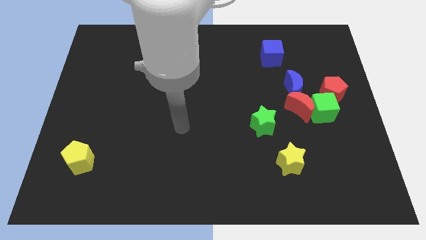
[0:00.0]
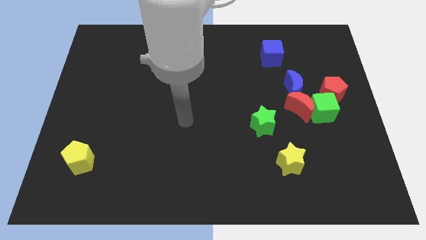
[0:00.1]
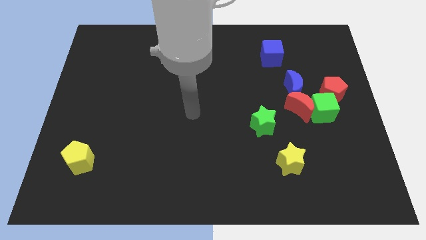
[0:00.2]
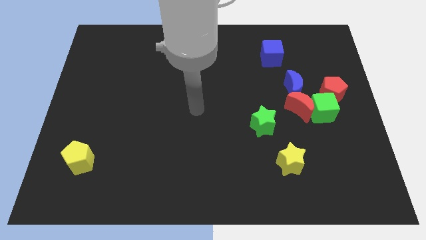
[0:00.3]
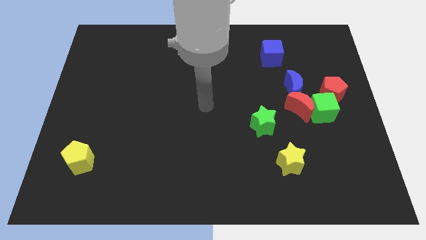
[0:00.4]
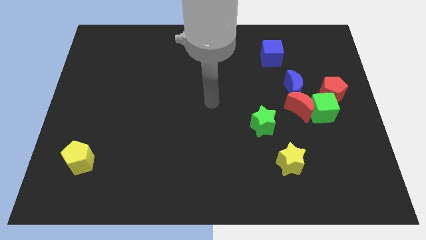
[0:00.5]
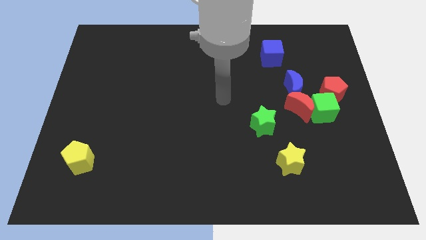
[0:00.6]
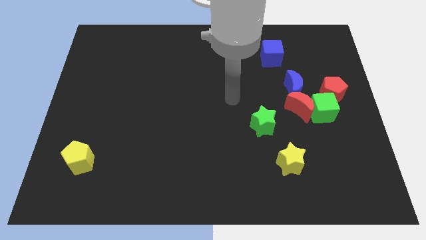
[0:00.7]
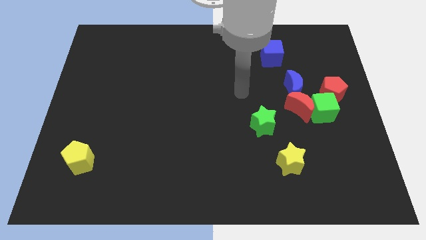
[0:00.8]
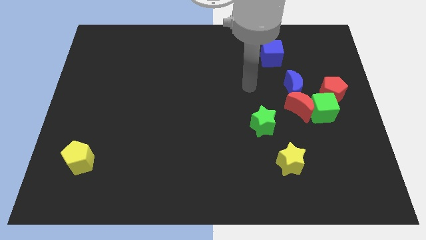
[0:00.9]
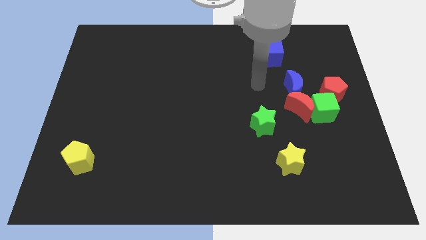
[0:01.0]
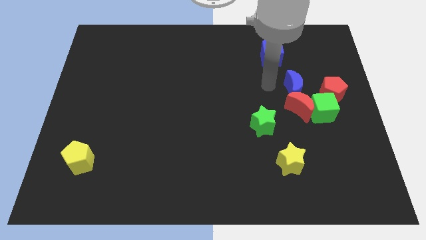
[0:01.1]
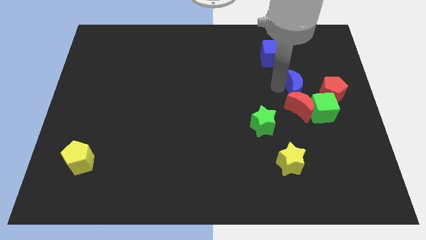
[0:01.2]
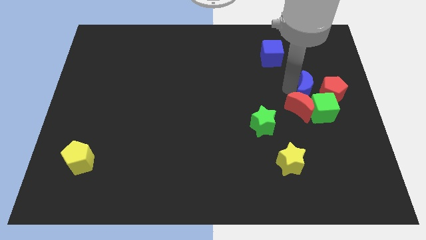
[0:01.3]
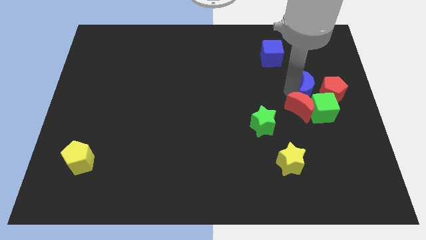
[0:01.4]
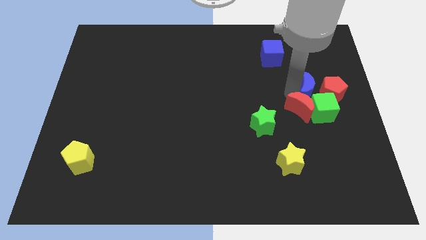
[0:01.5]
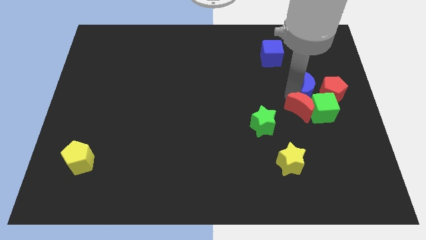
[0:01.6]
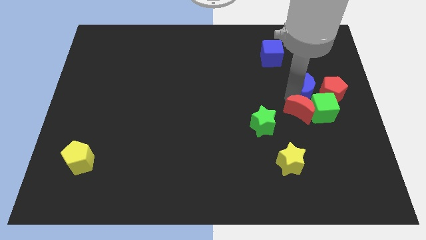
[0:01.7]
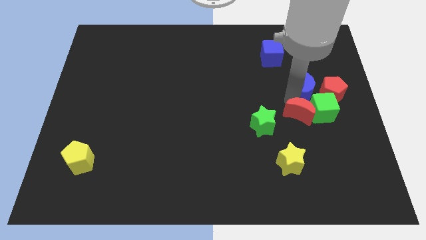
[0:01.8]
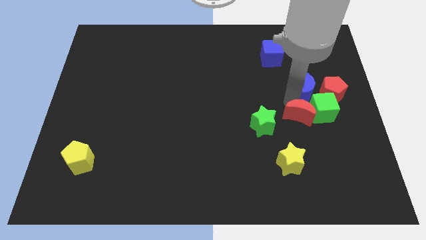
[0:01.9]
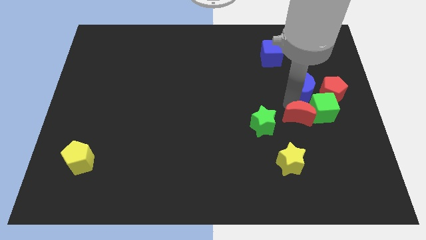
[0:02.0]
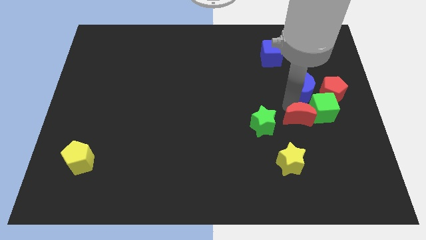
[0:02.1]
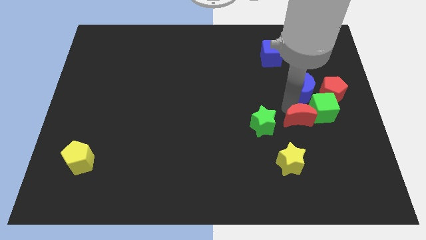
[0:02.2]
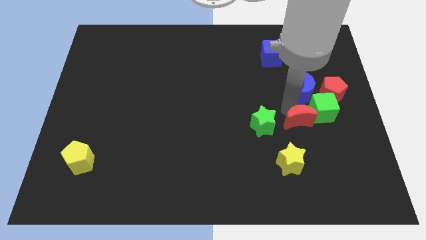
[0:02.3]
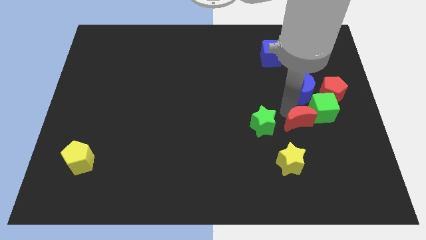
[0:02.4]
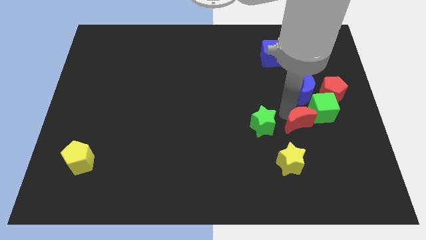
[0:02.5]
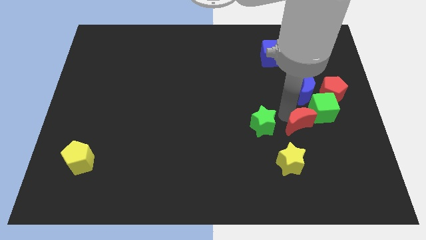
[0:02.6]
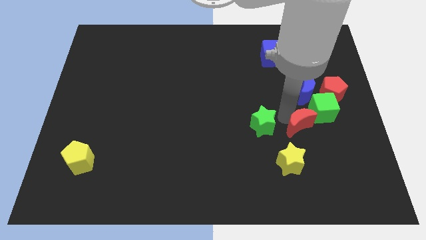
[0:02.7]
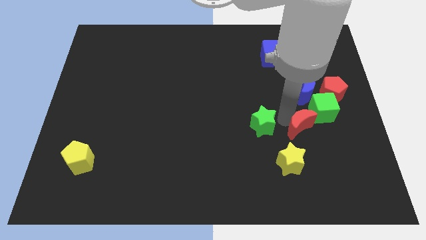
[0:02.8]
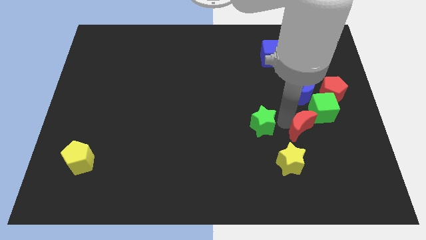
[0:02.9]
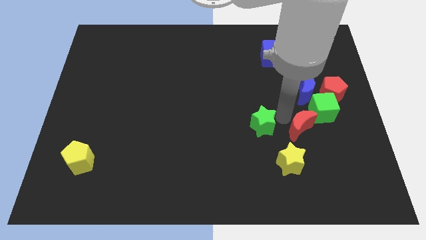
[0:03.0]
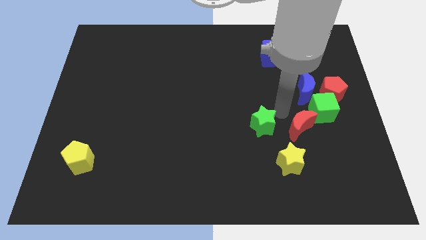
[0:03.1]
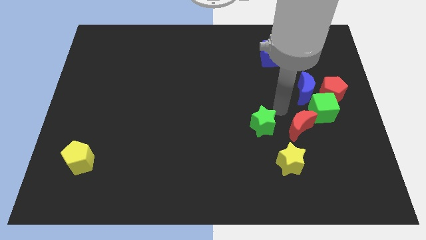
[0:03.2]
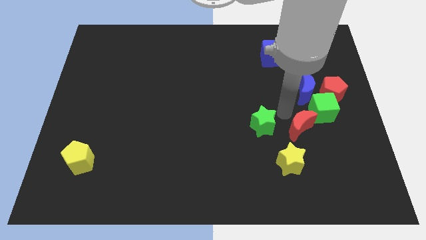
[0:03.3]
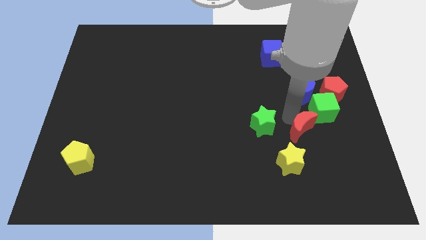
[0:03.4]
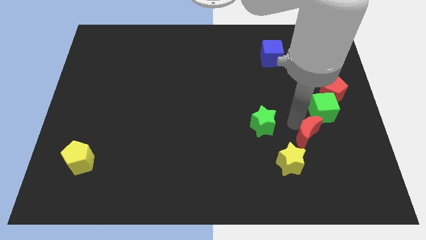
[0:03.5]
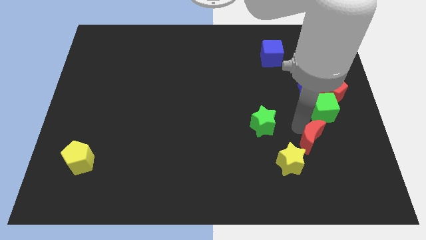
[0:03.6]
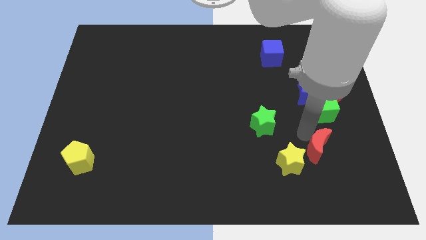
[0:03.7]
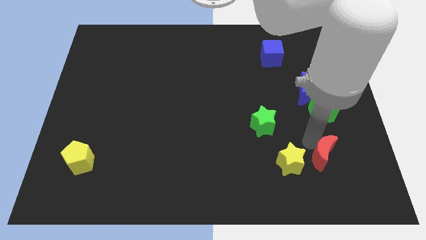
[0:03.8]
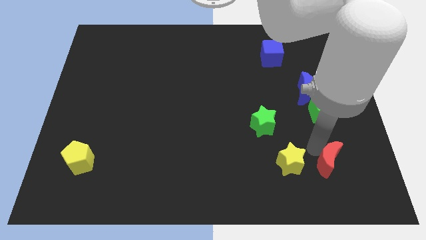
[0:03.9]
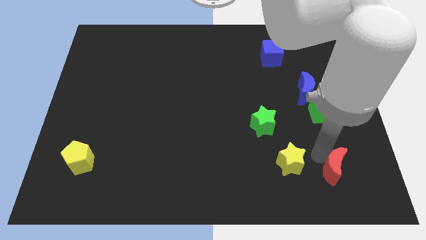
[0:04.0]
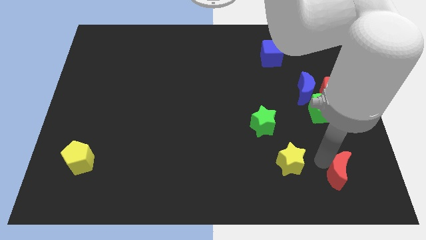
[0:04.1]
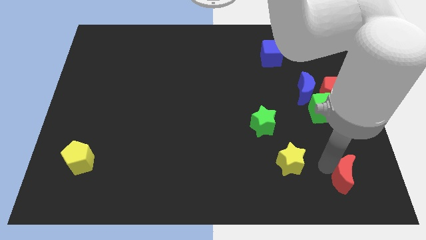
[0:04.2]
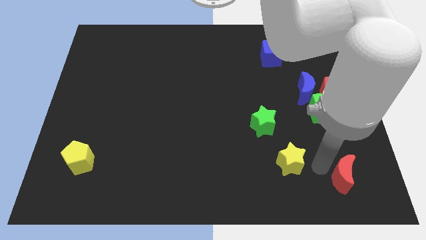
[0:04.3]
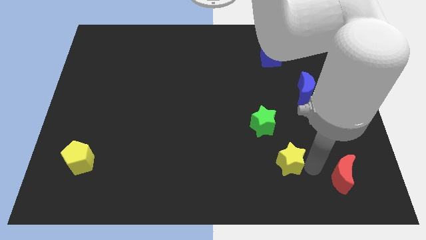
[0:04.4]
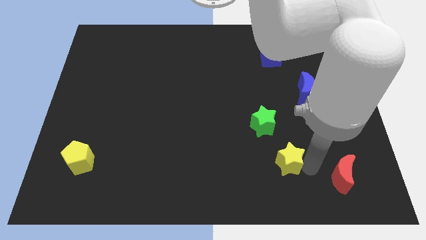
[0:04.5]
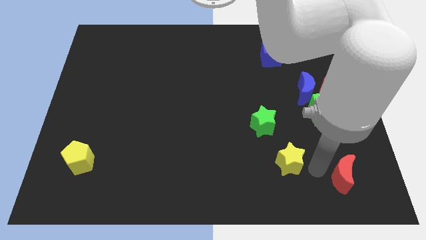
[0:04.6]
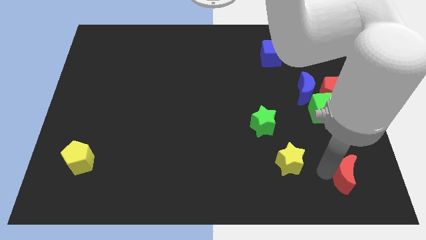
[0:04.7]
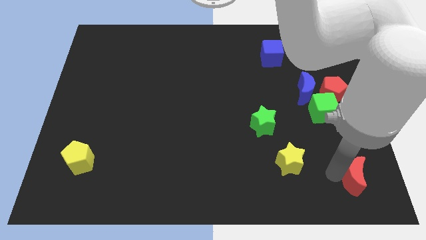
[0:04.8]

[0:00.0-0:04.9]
put the red moon to the lower right corner
